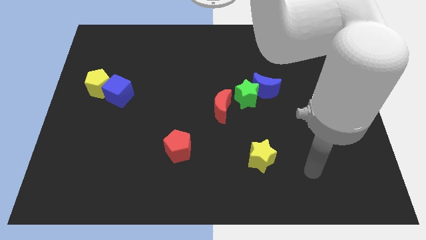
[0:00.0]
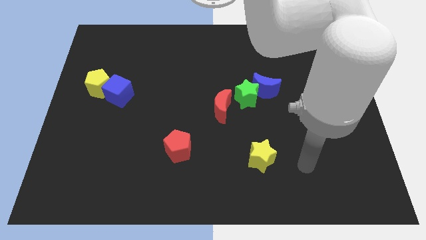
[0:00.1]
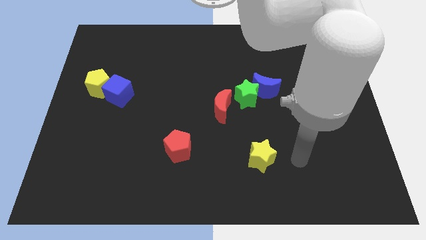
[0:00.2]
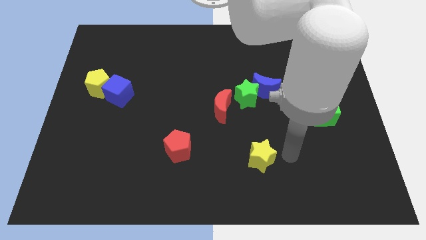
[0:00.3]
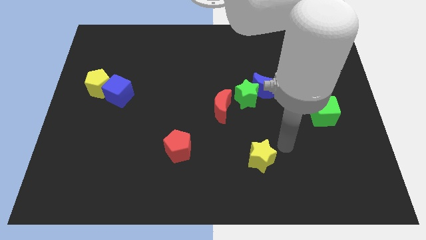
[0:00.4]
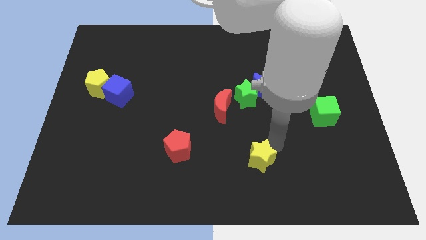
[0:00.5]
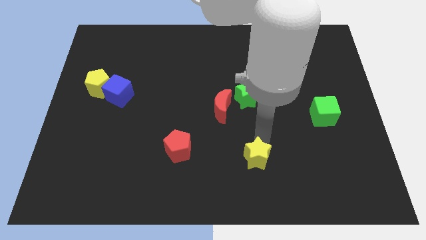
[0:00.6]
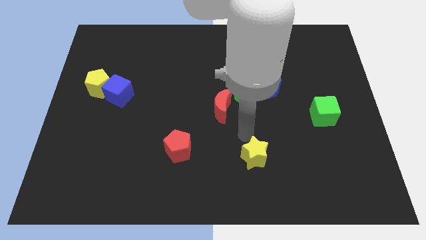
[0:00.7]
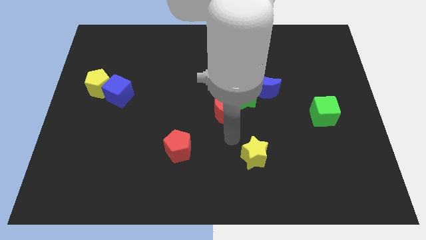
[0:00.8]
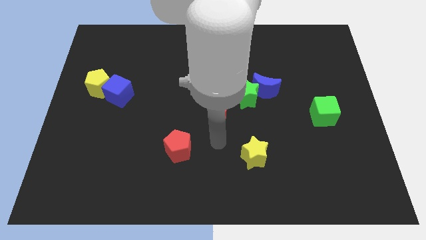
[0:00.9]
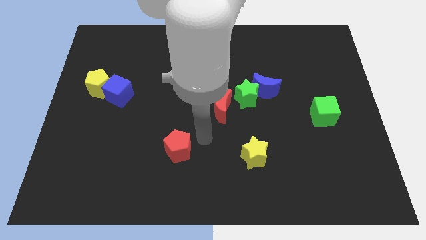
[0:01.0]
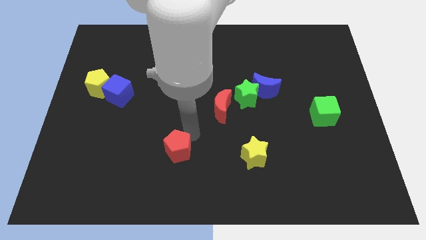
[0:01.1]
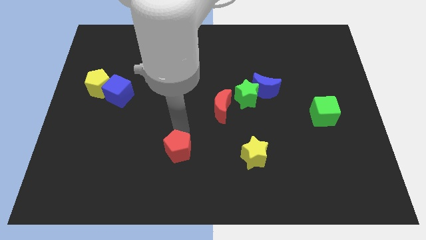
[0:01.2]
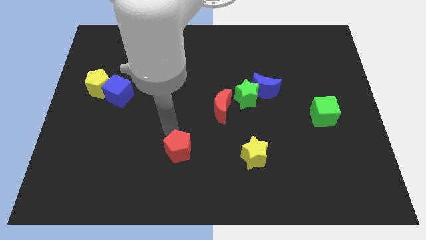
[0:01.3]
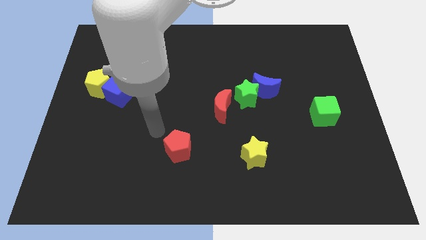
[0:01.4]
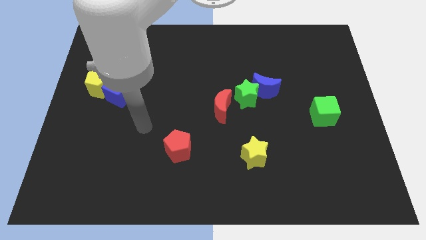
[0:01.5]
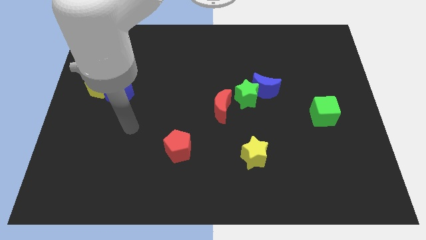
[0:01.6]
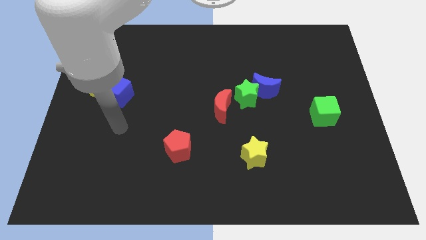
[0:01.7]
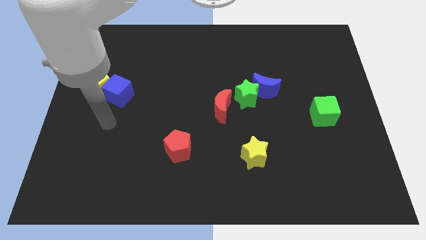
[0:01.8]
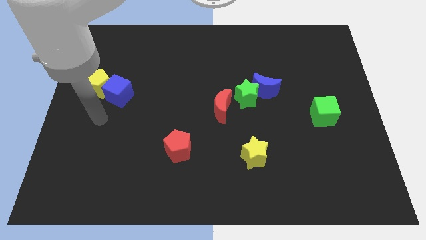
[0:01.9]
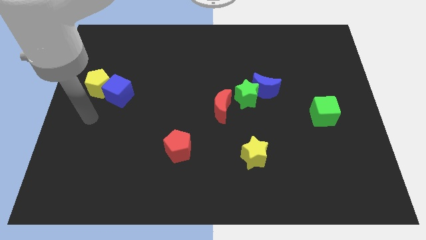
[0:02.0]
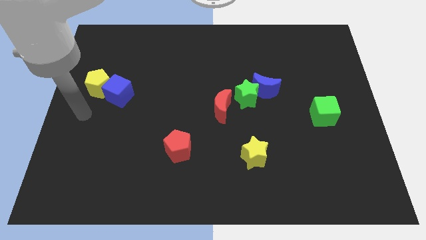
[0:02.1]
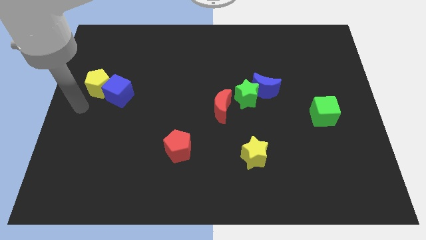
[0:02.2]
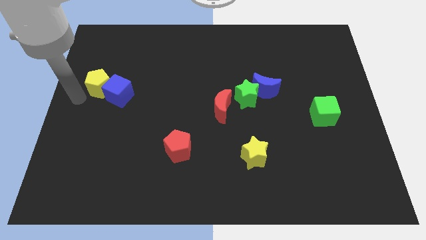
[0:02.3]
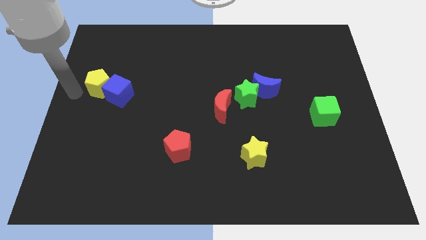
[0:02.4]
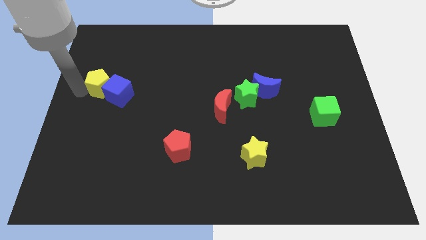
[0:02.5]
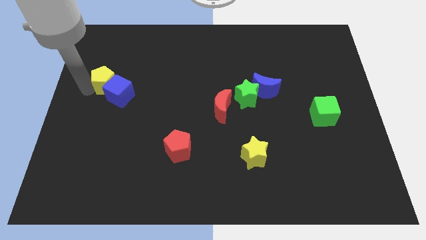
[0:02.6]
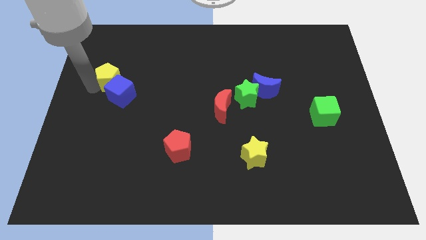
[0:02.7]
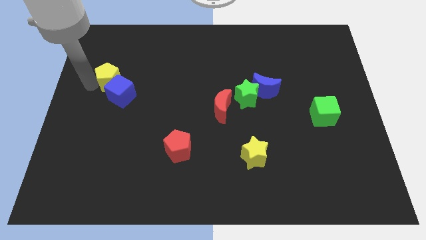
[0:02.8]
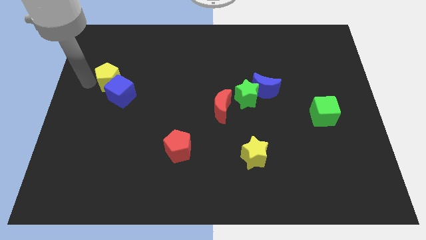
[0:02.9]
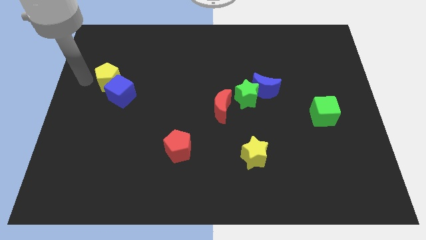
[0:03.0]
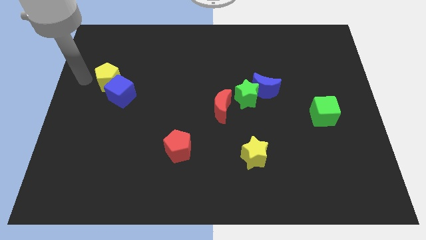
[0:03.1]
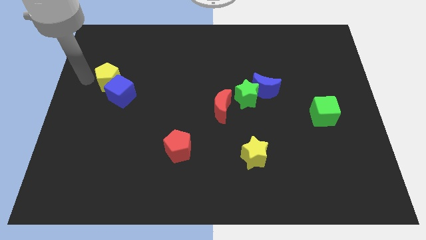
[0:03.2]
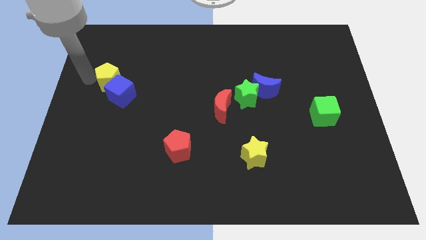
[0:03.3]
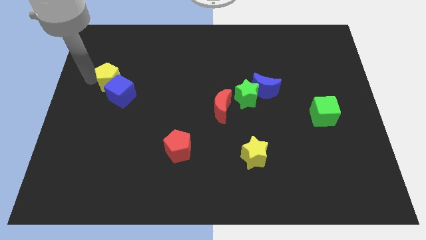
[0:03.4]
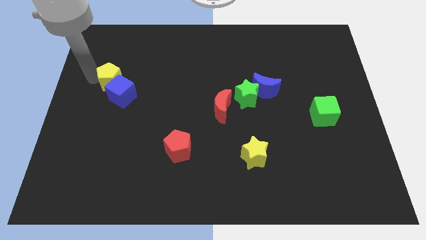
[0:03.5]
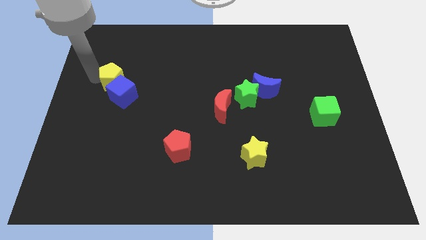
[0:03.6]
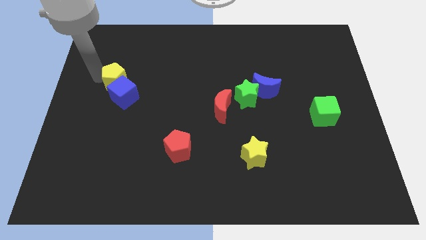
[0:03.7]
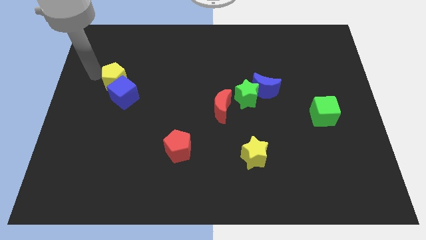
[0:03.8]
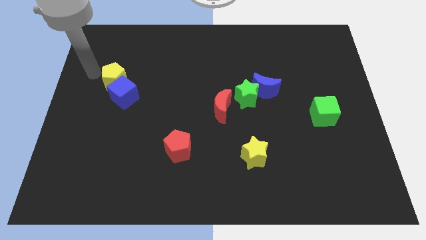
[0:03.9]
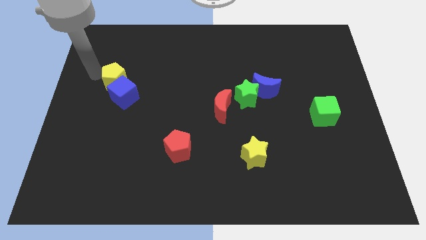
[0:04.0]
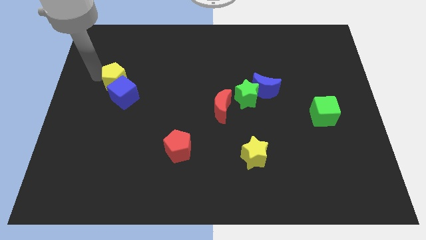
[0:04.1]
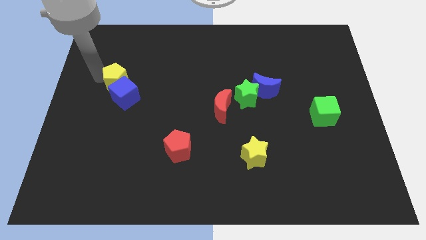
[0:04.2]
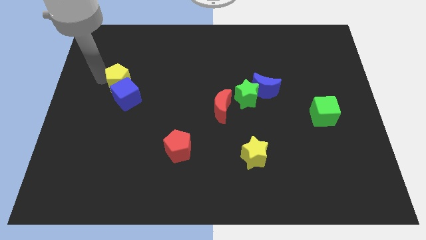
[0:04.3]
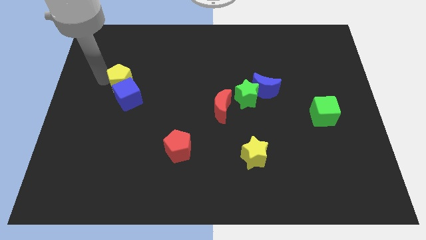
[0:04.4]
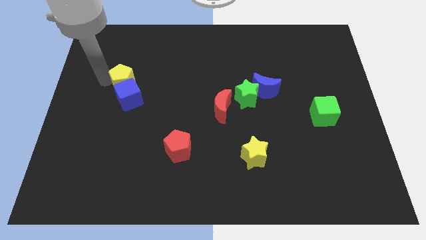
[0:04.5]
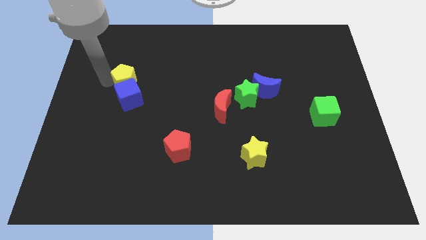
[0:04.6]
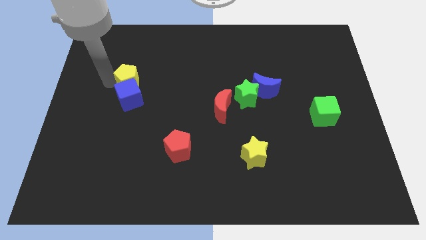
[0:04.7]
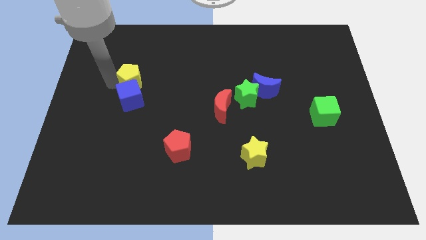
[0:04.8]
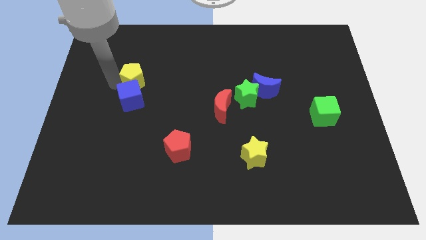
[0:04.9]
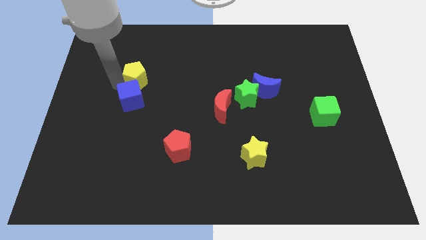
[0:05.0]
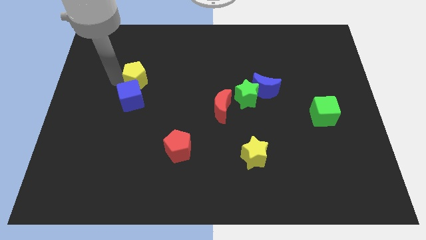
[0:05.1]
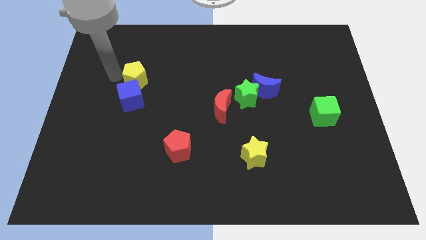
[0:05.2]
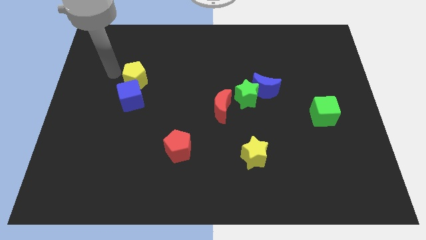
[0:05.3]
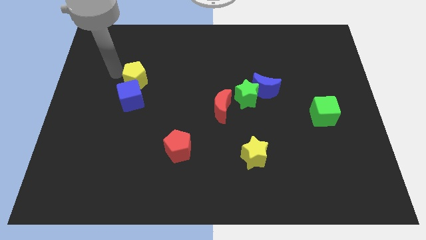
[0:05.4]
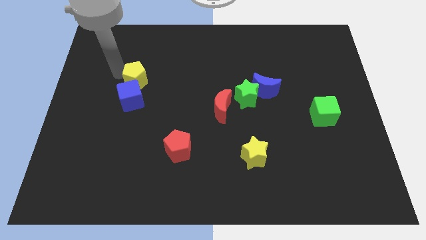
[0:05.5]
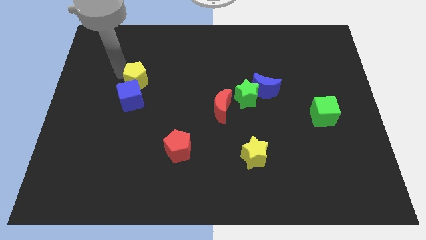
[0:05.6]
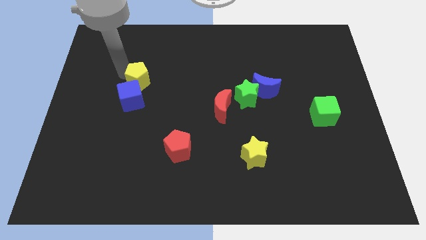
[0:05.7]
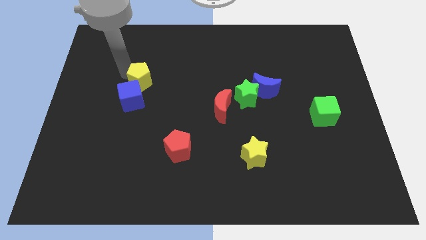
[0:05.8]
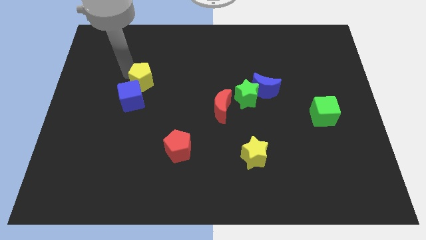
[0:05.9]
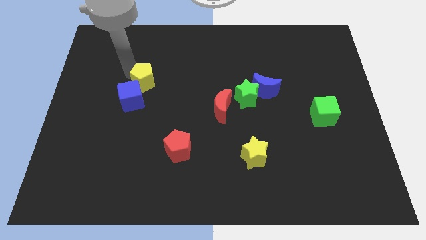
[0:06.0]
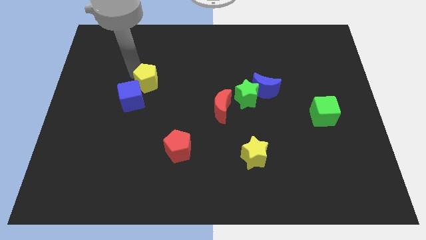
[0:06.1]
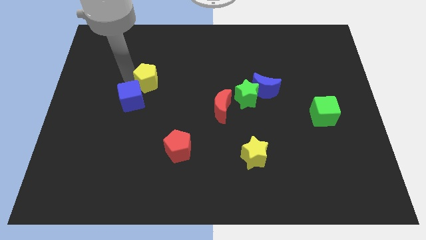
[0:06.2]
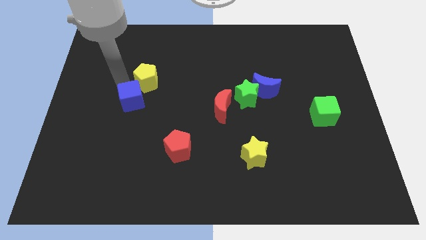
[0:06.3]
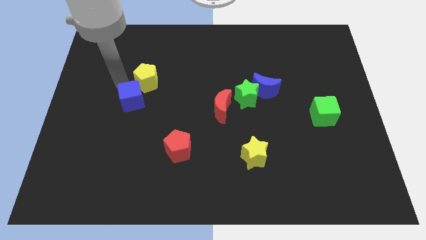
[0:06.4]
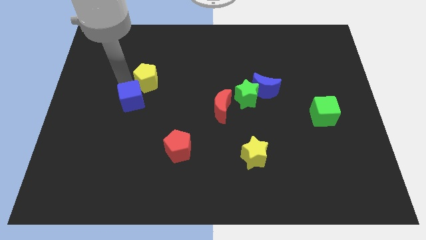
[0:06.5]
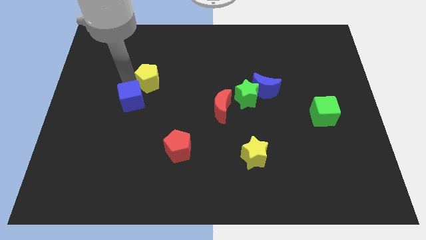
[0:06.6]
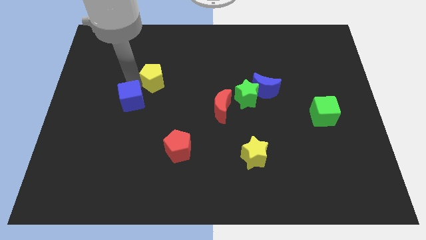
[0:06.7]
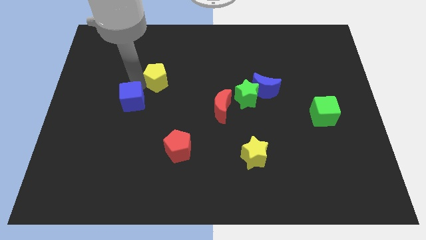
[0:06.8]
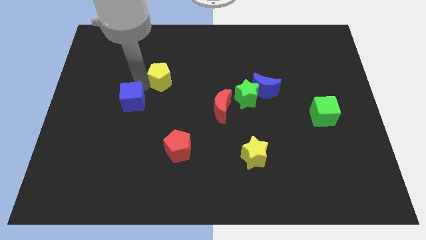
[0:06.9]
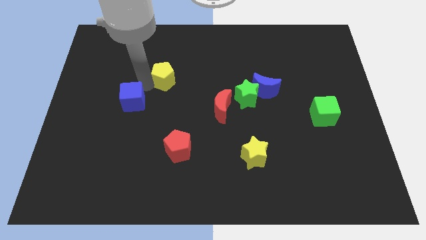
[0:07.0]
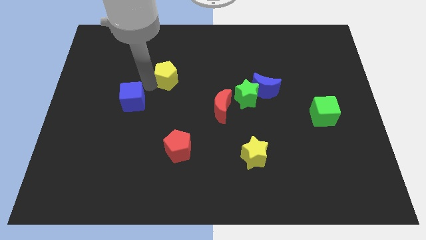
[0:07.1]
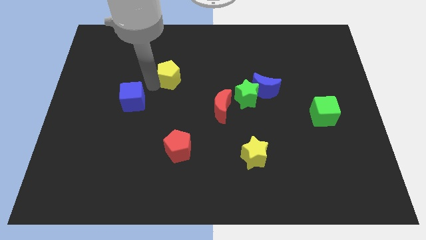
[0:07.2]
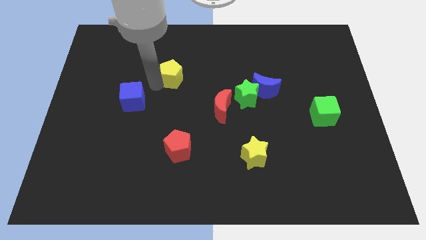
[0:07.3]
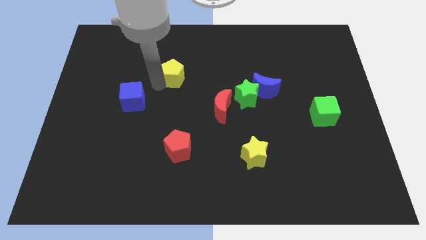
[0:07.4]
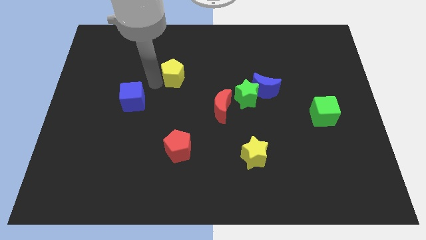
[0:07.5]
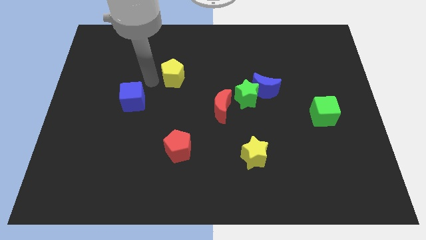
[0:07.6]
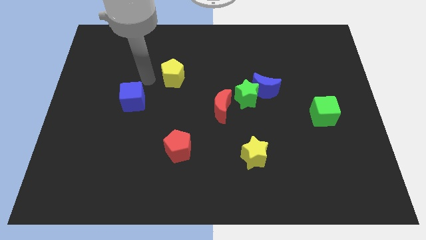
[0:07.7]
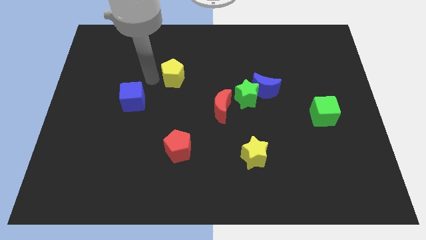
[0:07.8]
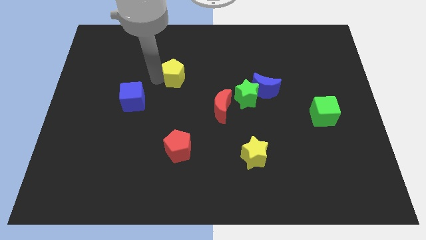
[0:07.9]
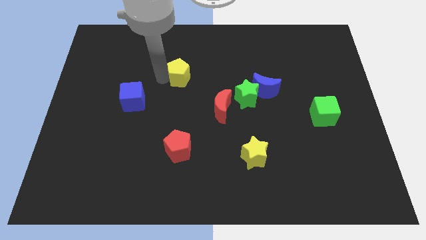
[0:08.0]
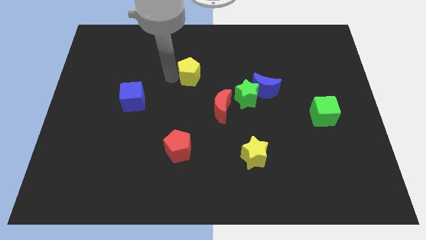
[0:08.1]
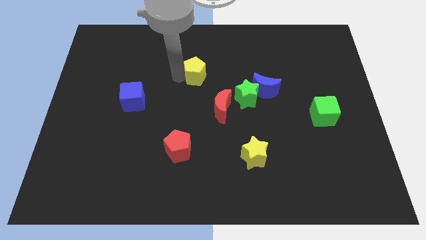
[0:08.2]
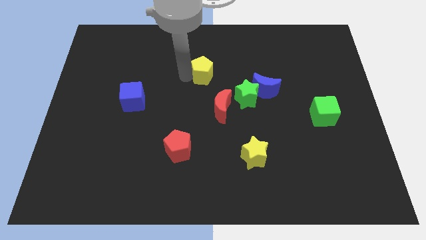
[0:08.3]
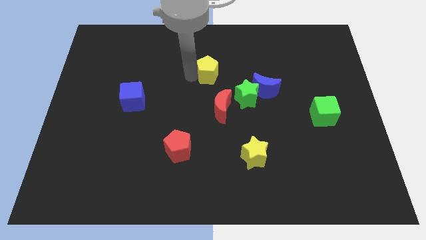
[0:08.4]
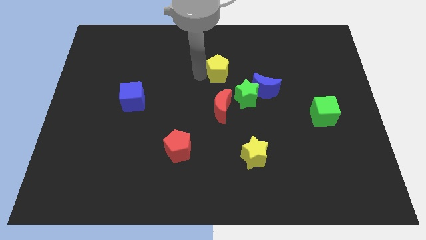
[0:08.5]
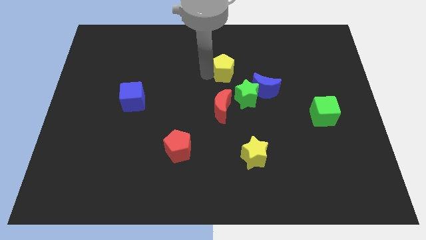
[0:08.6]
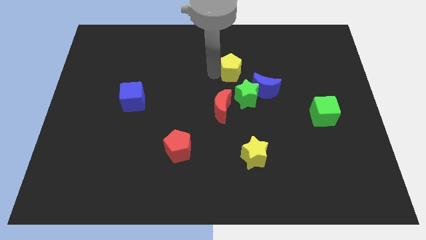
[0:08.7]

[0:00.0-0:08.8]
push the yellow pentagon to the top of the green star
